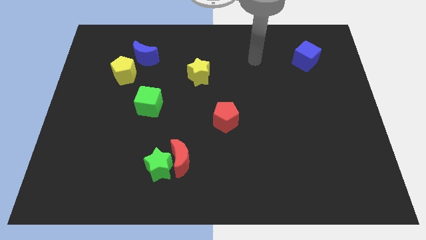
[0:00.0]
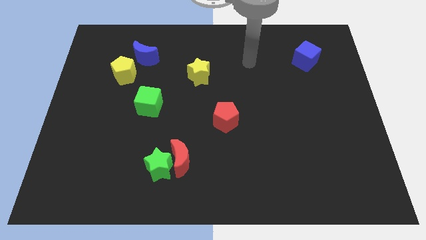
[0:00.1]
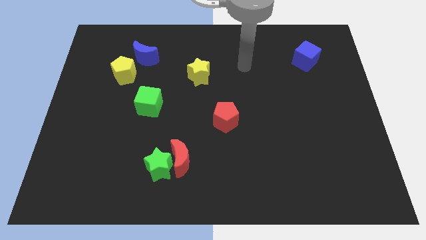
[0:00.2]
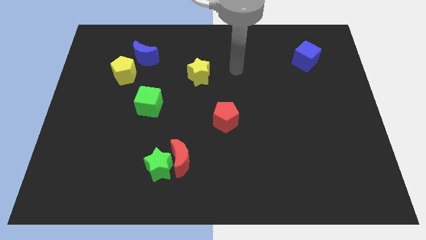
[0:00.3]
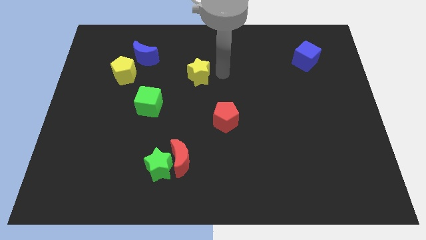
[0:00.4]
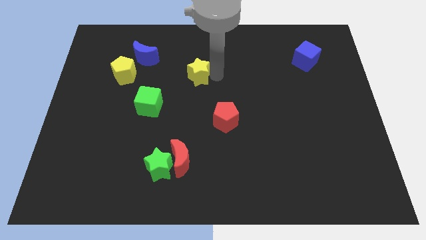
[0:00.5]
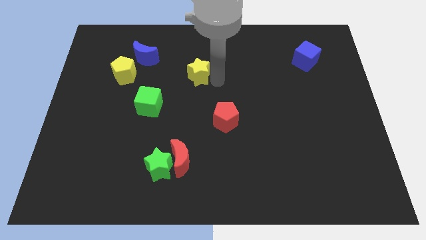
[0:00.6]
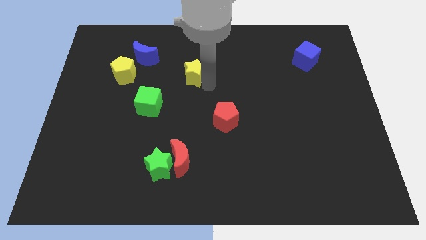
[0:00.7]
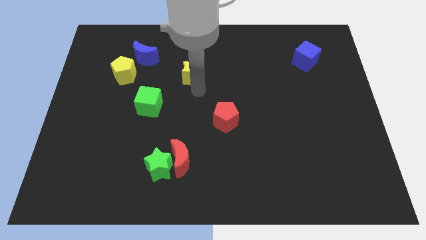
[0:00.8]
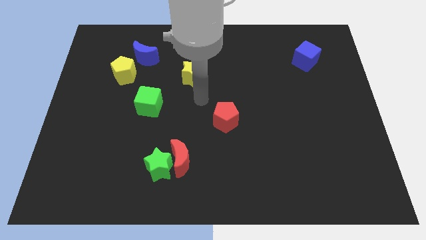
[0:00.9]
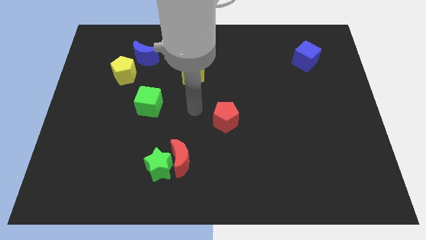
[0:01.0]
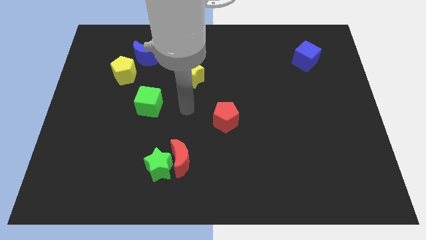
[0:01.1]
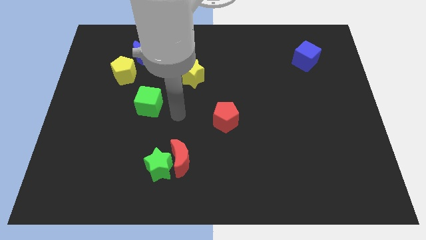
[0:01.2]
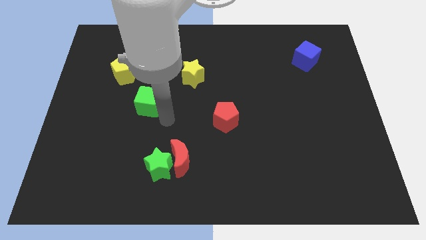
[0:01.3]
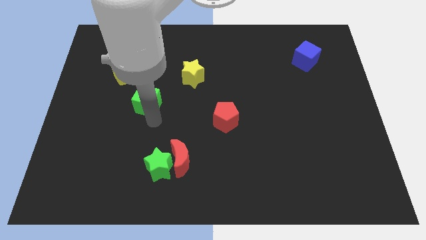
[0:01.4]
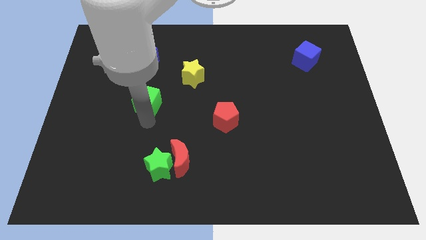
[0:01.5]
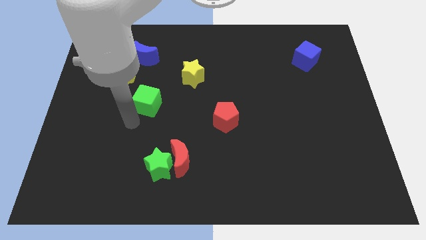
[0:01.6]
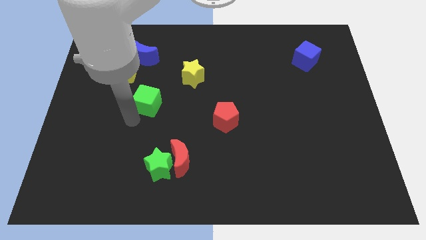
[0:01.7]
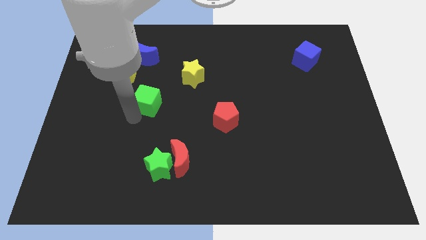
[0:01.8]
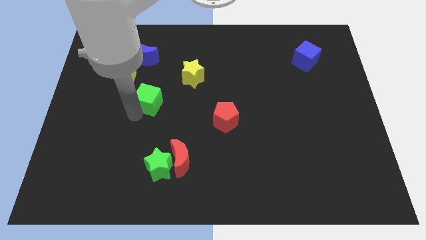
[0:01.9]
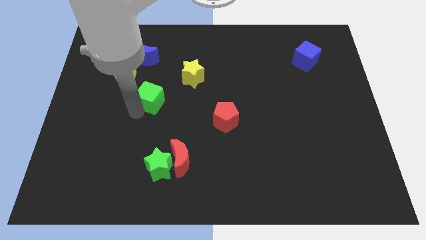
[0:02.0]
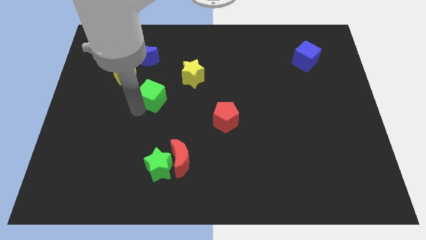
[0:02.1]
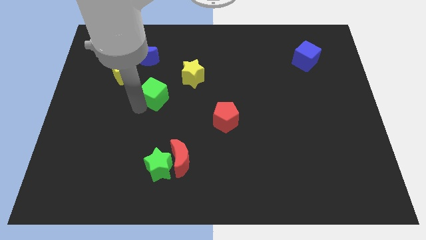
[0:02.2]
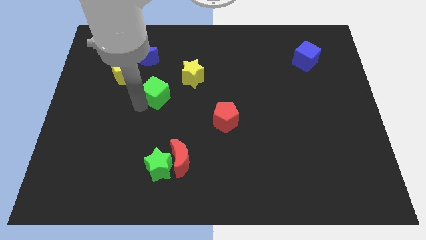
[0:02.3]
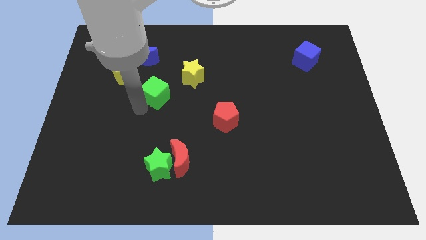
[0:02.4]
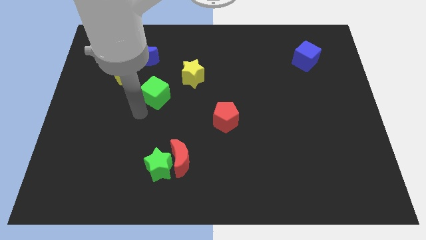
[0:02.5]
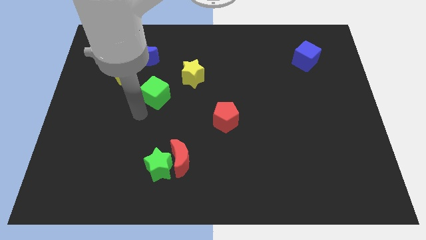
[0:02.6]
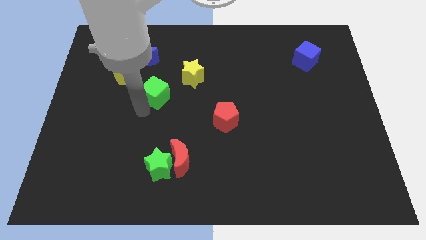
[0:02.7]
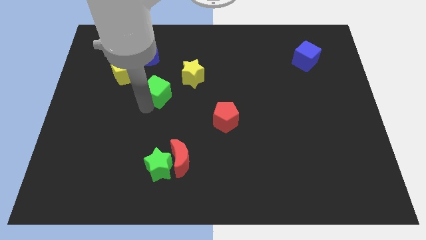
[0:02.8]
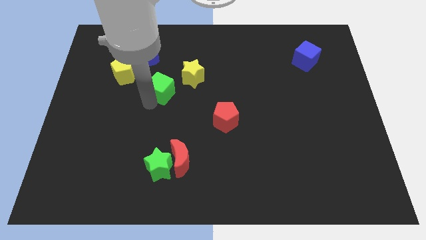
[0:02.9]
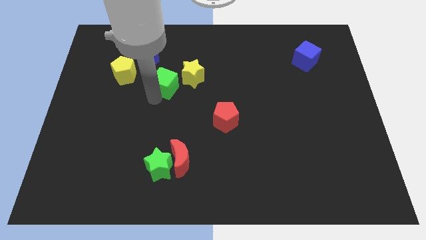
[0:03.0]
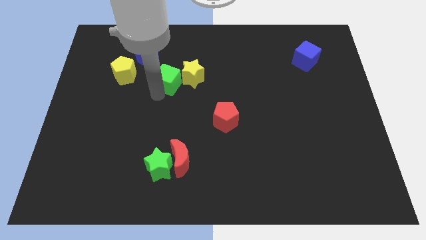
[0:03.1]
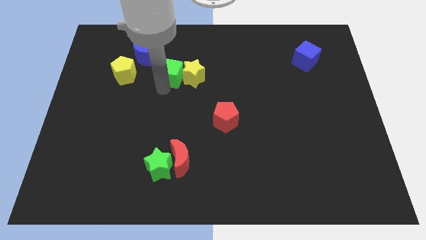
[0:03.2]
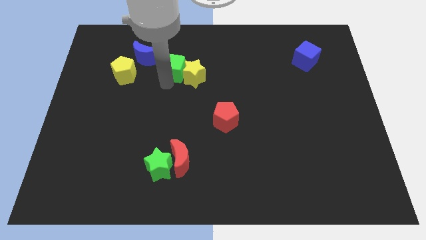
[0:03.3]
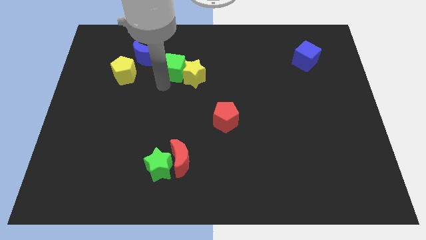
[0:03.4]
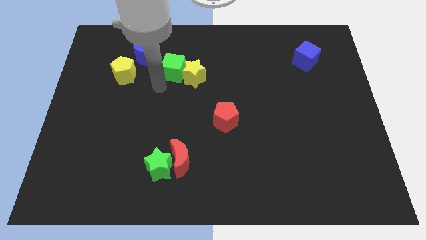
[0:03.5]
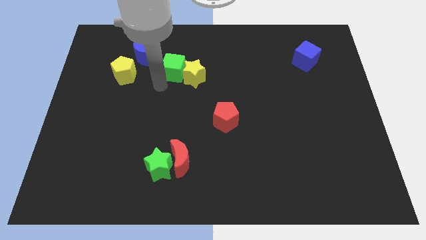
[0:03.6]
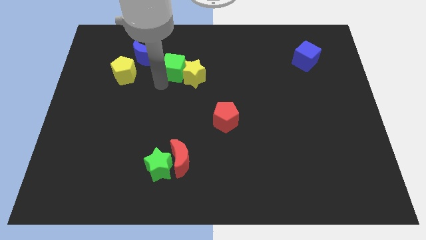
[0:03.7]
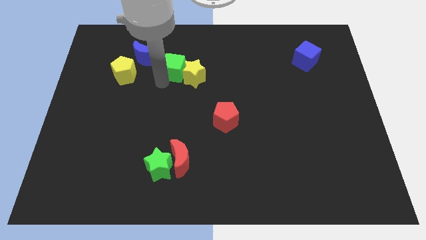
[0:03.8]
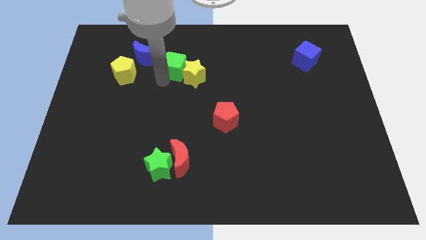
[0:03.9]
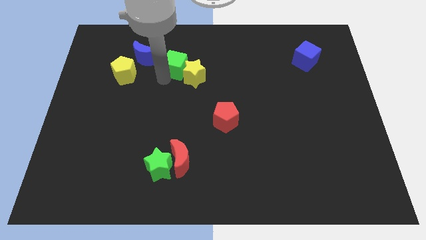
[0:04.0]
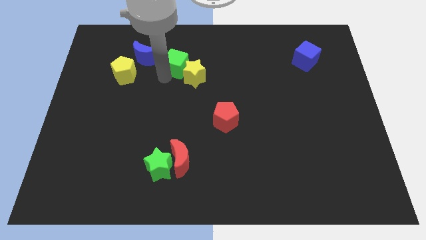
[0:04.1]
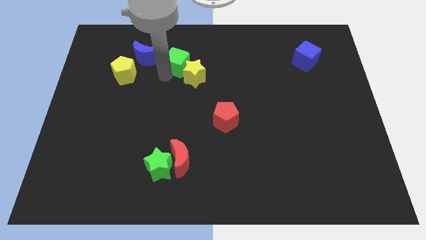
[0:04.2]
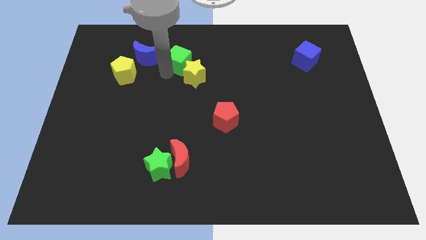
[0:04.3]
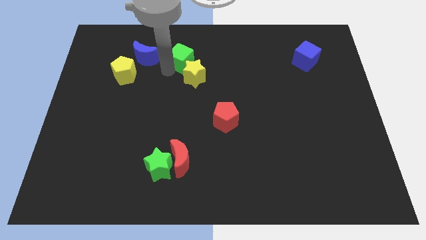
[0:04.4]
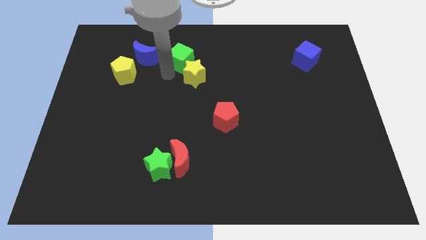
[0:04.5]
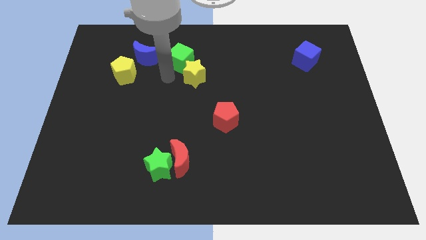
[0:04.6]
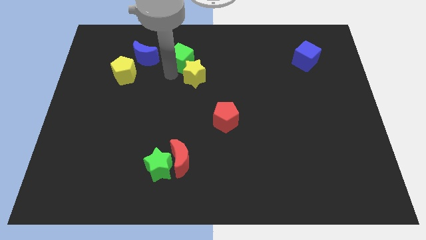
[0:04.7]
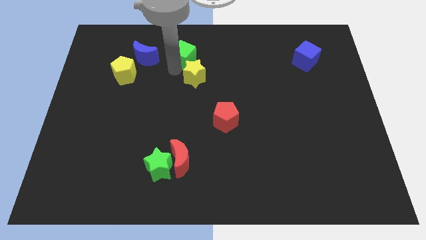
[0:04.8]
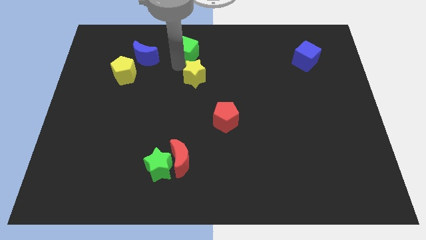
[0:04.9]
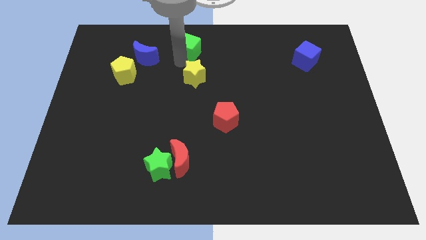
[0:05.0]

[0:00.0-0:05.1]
put the green cube to the top
